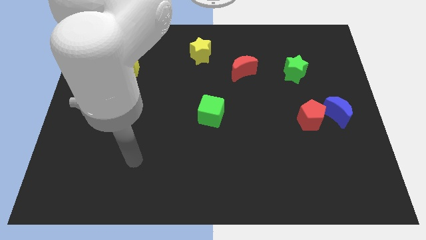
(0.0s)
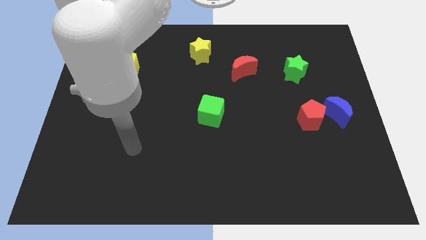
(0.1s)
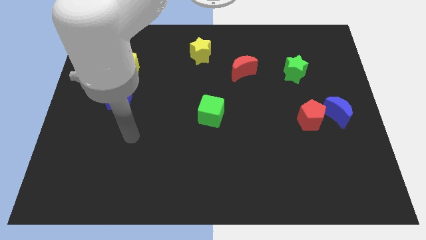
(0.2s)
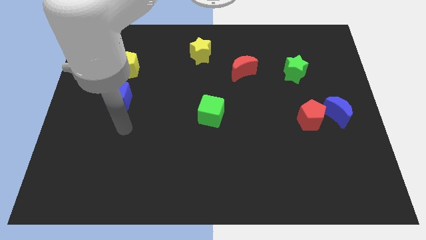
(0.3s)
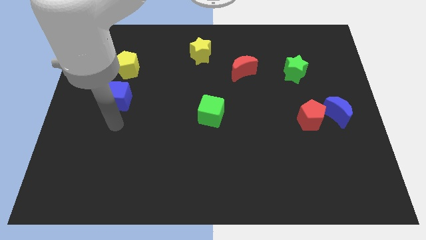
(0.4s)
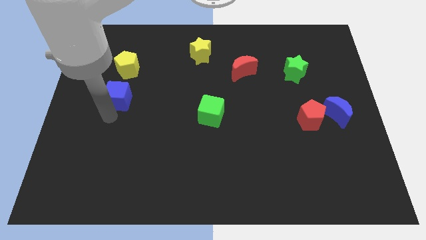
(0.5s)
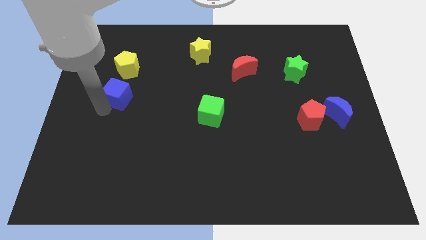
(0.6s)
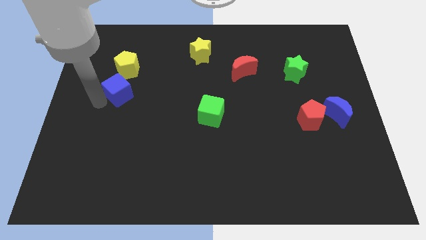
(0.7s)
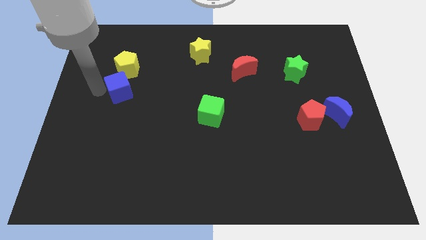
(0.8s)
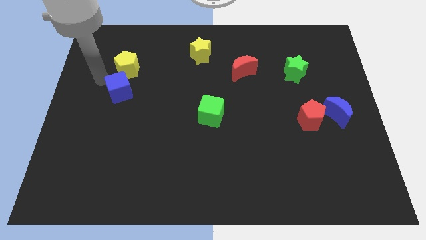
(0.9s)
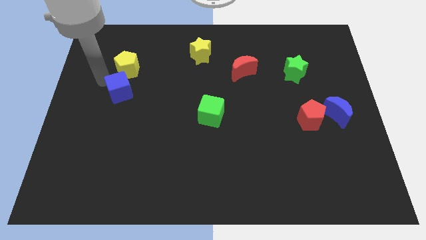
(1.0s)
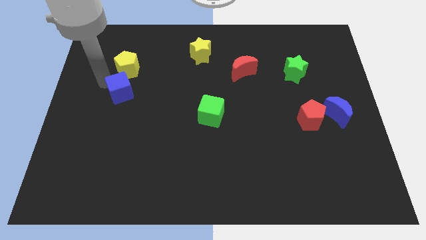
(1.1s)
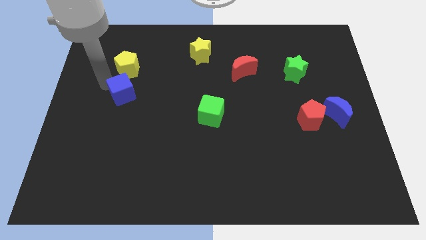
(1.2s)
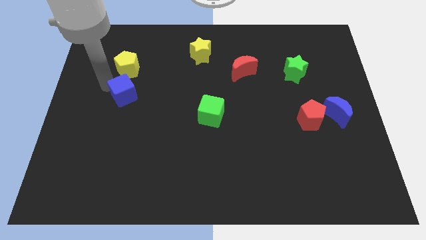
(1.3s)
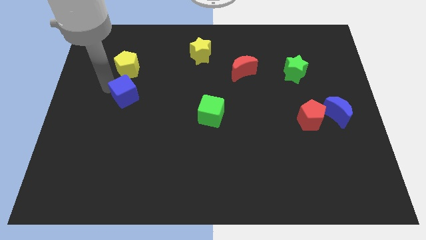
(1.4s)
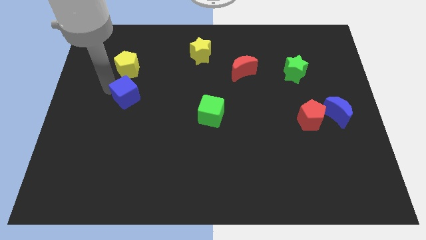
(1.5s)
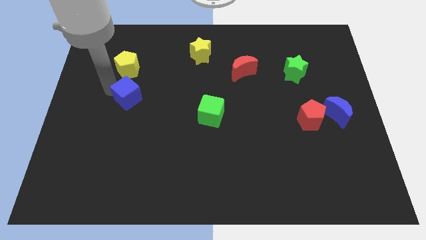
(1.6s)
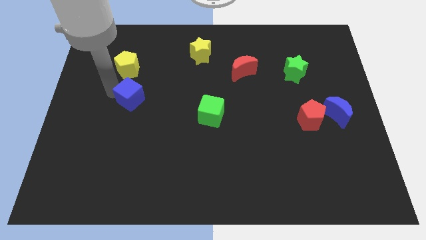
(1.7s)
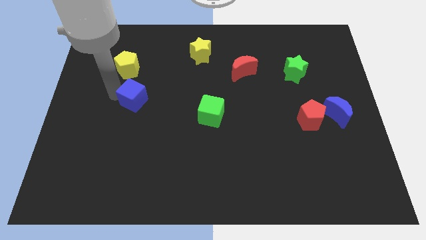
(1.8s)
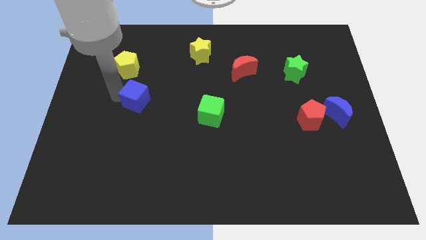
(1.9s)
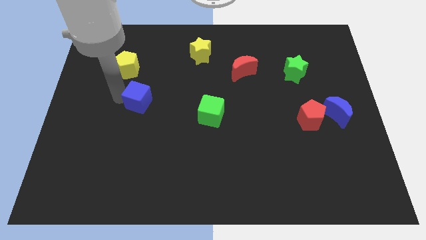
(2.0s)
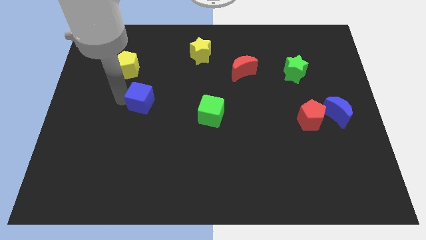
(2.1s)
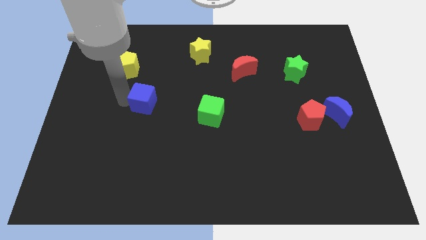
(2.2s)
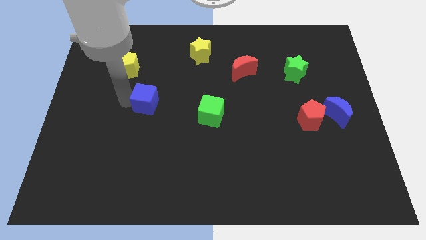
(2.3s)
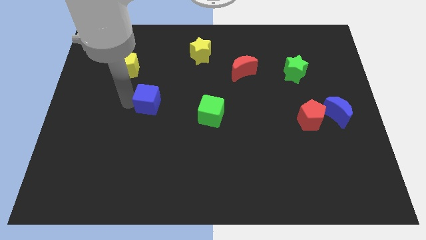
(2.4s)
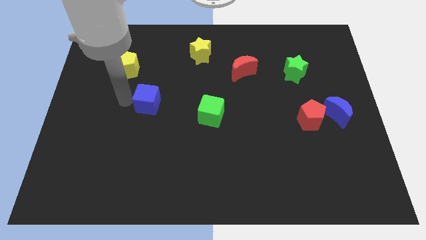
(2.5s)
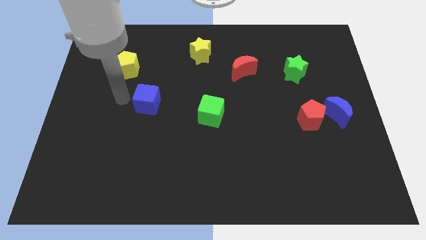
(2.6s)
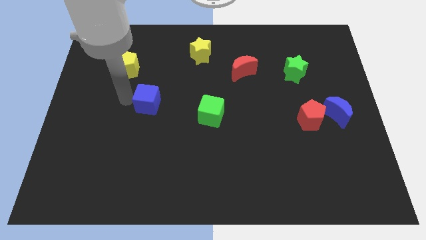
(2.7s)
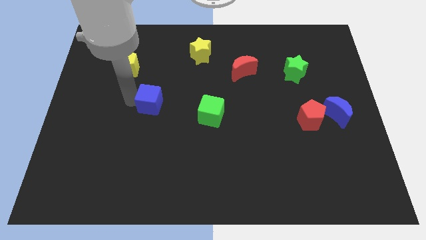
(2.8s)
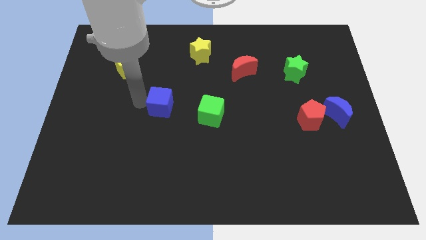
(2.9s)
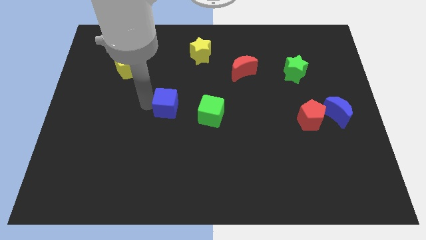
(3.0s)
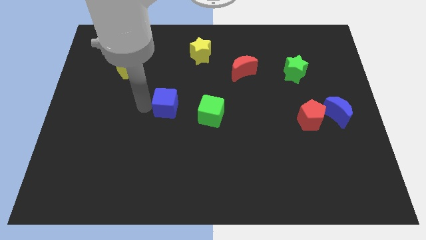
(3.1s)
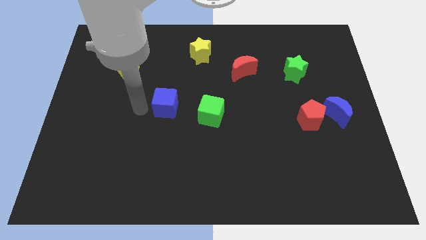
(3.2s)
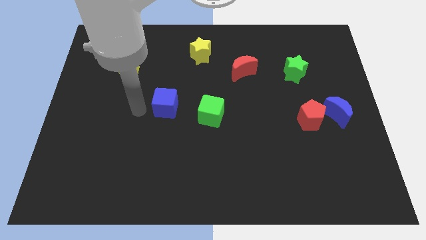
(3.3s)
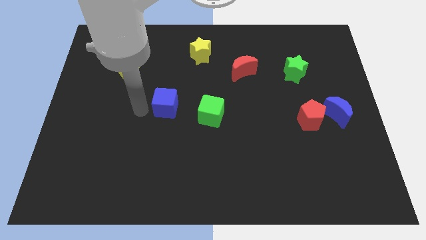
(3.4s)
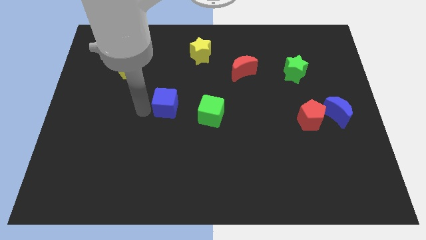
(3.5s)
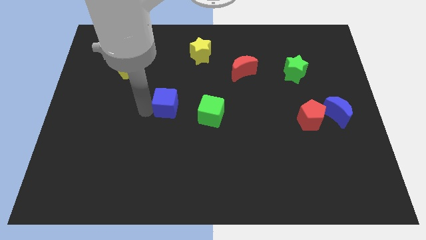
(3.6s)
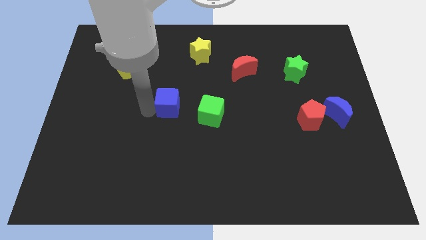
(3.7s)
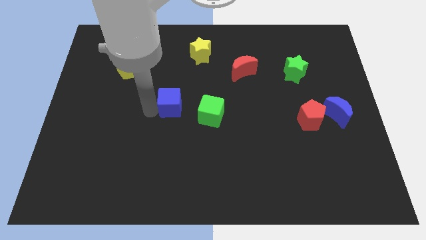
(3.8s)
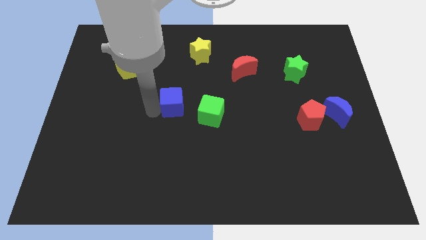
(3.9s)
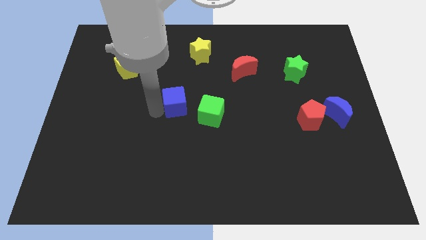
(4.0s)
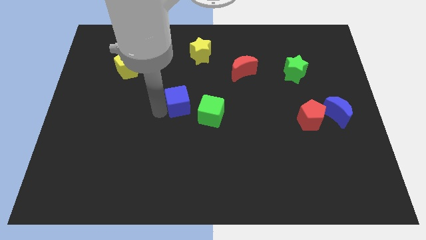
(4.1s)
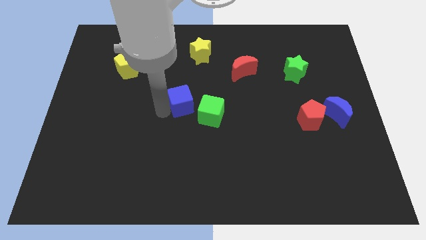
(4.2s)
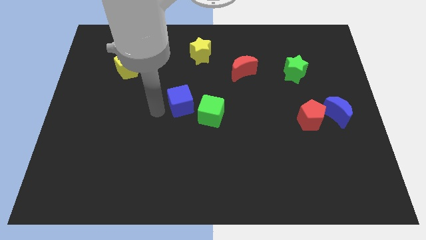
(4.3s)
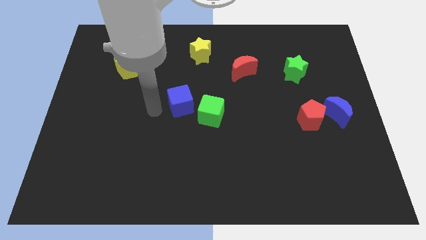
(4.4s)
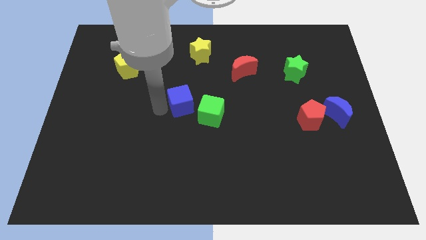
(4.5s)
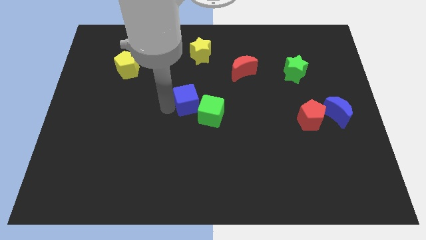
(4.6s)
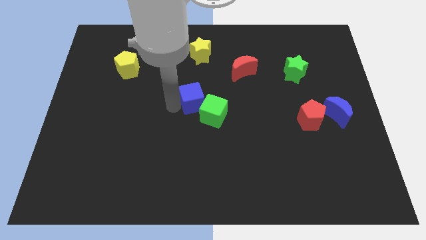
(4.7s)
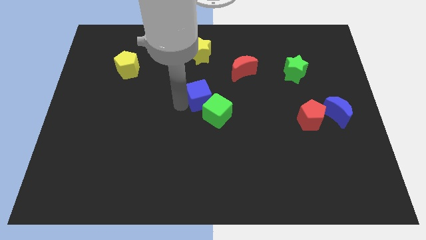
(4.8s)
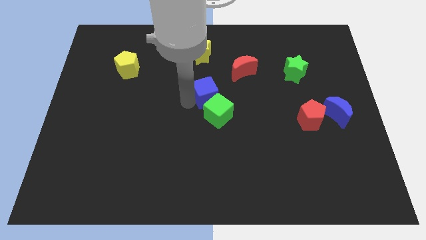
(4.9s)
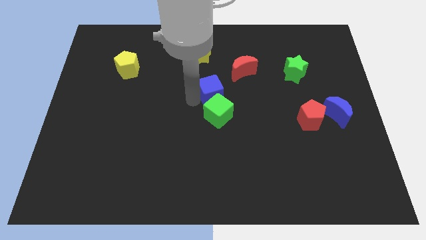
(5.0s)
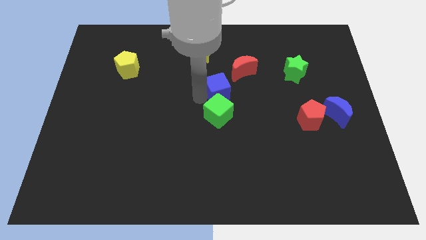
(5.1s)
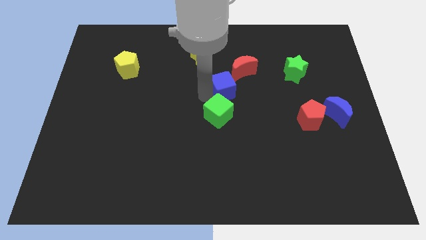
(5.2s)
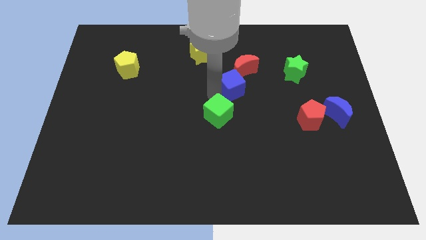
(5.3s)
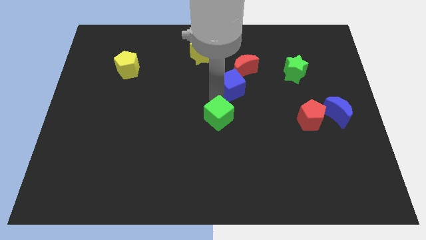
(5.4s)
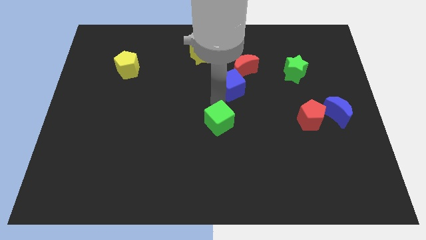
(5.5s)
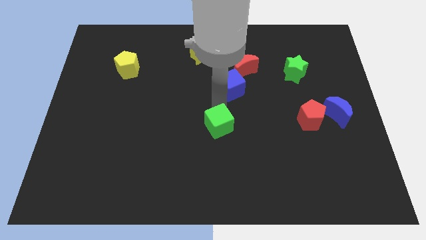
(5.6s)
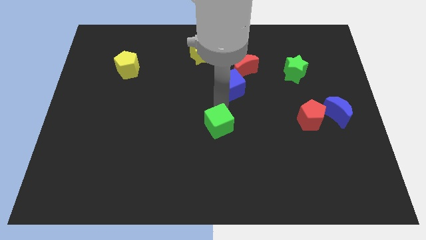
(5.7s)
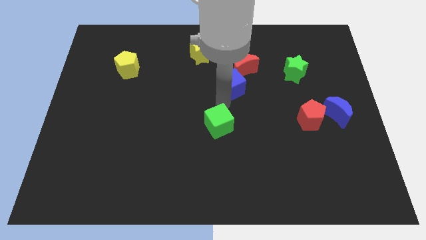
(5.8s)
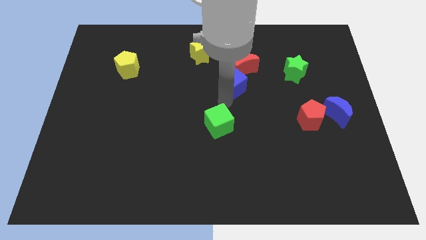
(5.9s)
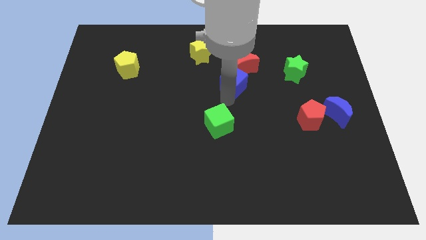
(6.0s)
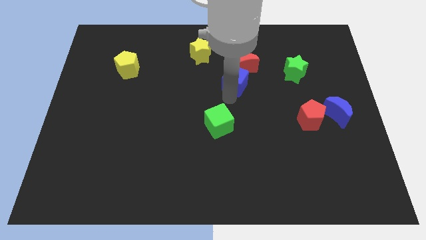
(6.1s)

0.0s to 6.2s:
push the blue cube next to the red moon

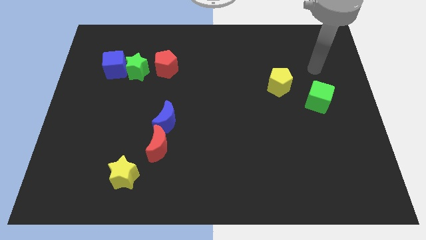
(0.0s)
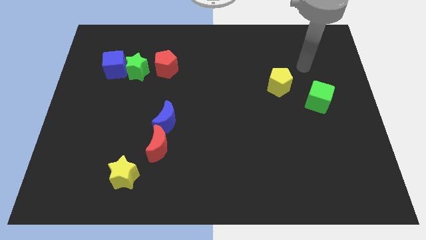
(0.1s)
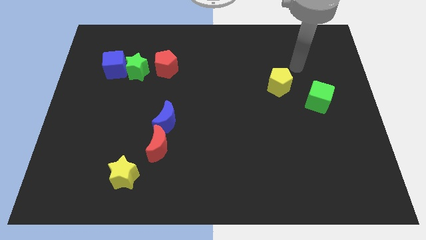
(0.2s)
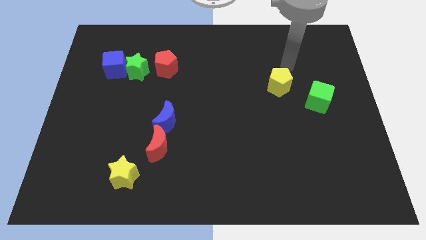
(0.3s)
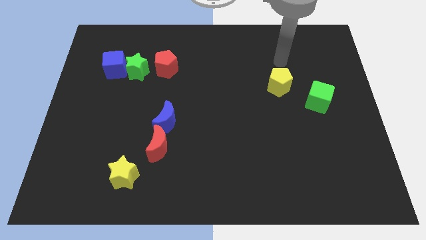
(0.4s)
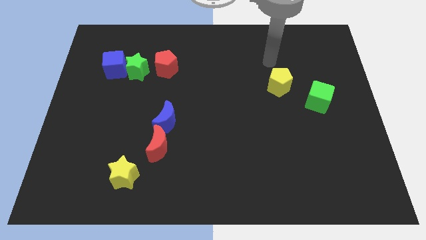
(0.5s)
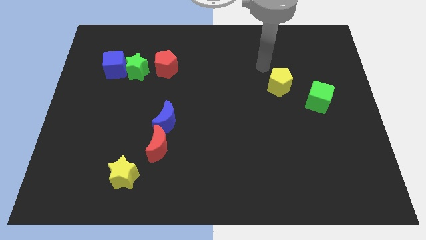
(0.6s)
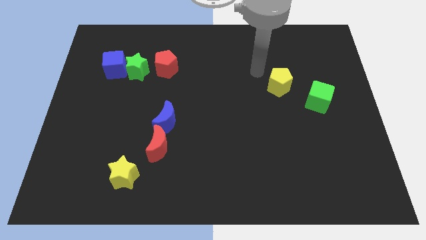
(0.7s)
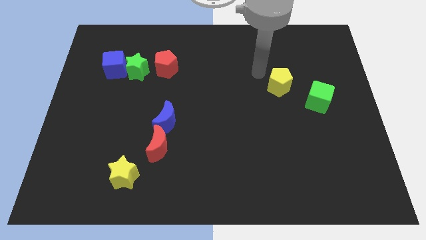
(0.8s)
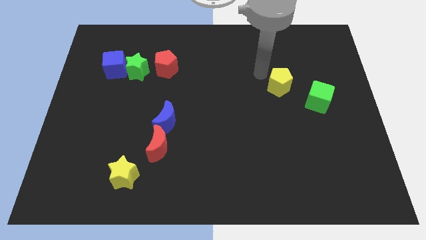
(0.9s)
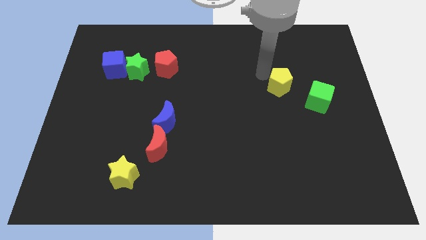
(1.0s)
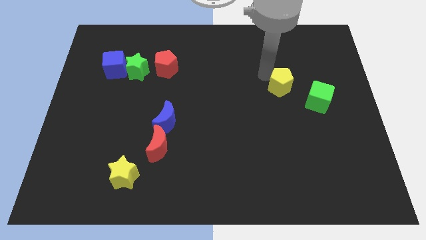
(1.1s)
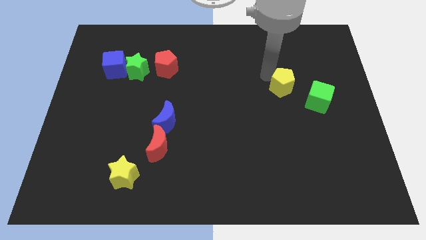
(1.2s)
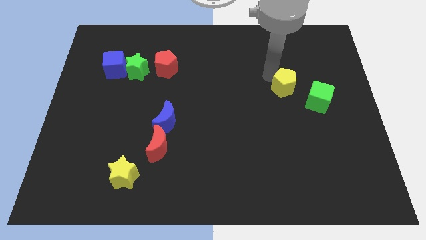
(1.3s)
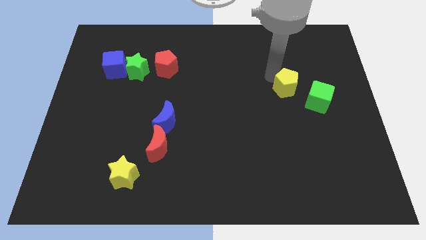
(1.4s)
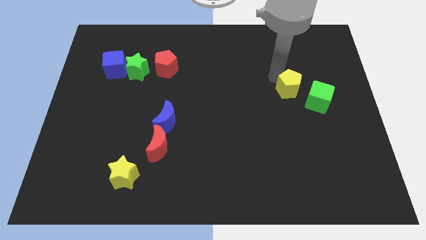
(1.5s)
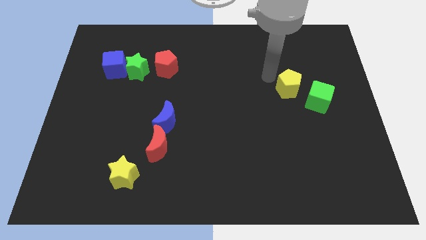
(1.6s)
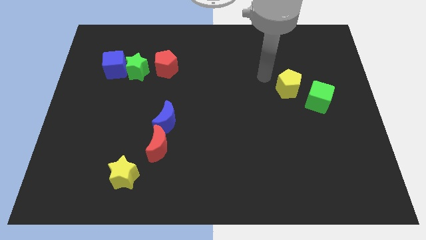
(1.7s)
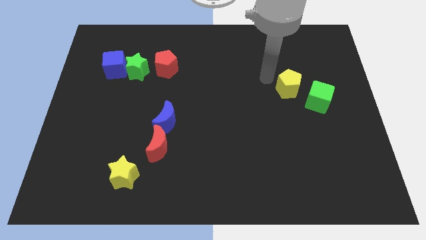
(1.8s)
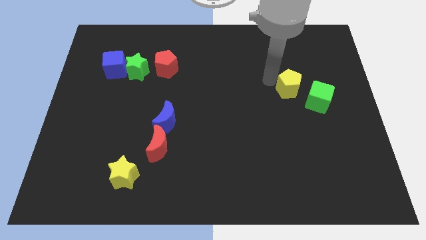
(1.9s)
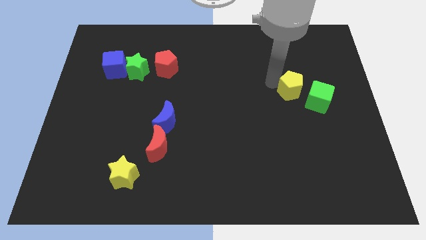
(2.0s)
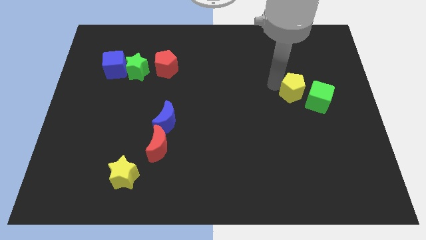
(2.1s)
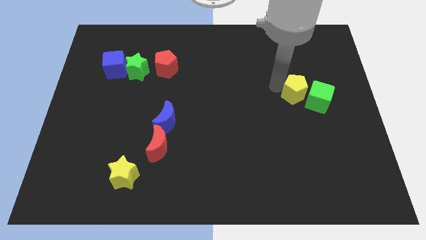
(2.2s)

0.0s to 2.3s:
push the yellow pentagon next to the green cube
